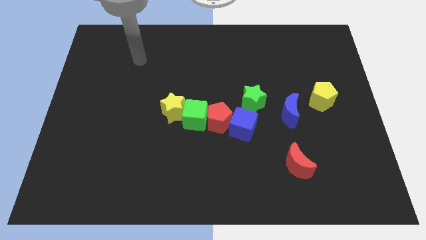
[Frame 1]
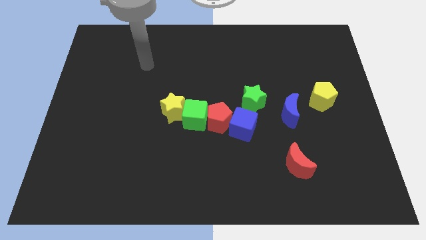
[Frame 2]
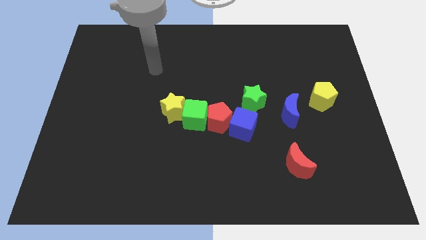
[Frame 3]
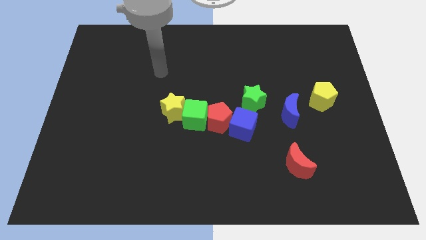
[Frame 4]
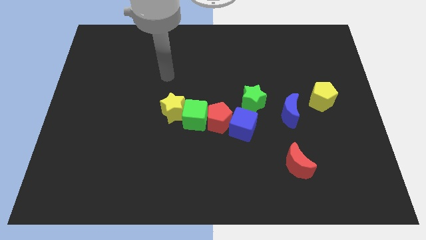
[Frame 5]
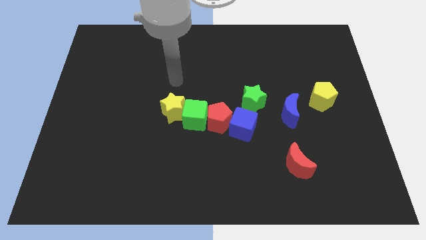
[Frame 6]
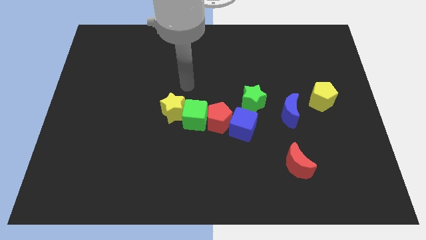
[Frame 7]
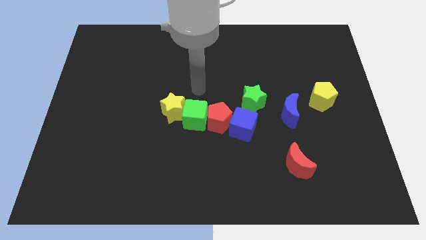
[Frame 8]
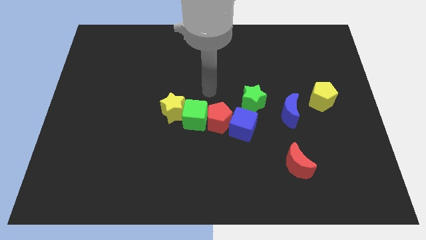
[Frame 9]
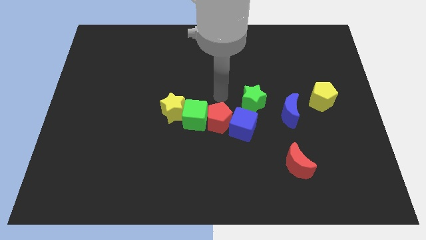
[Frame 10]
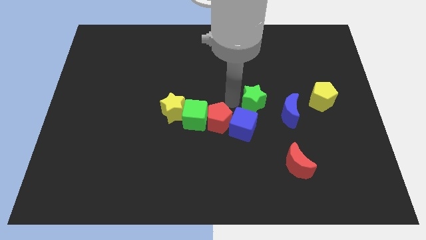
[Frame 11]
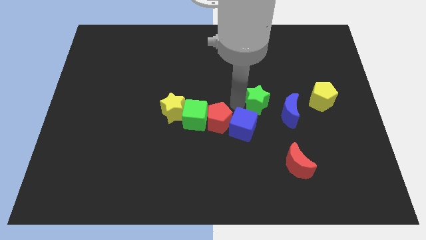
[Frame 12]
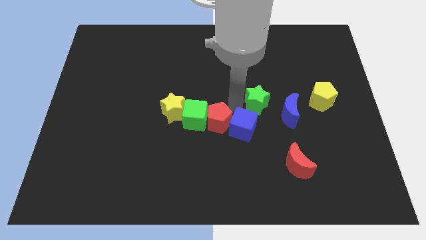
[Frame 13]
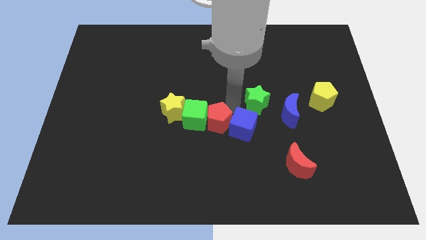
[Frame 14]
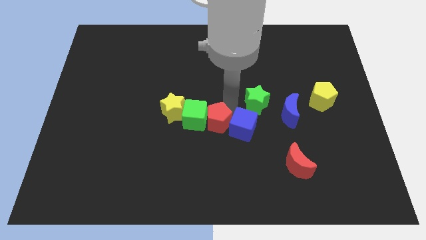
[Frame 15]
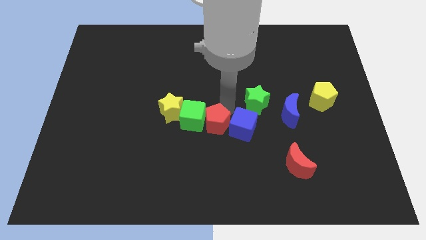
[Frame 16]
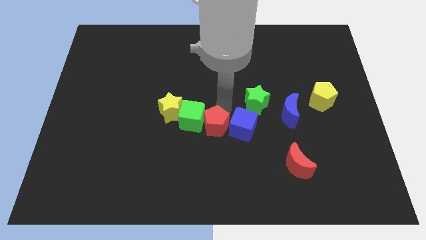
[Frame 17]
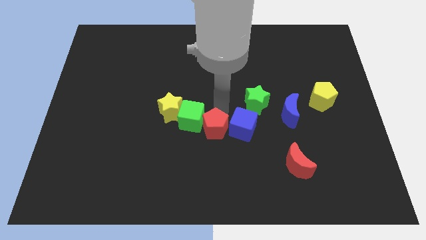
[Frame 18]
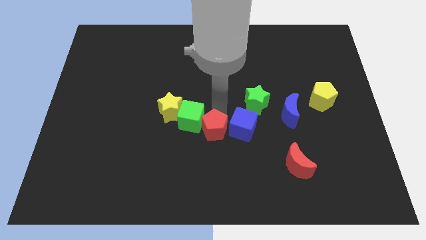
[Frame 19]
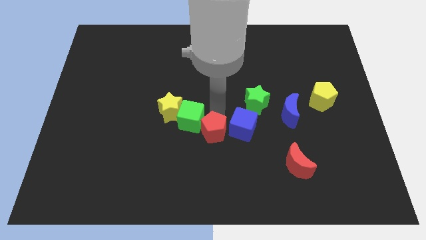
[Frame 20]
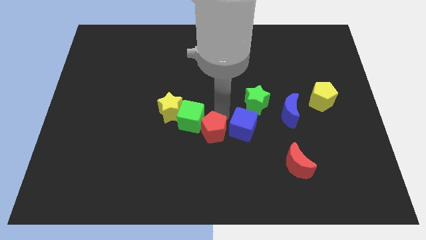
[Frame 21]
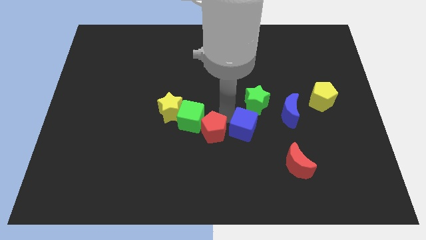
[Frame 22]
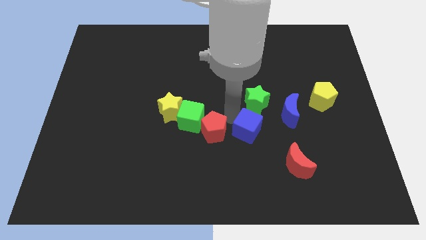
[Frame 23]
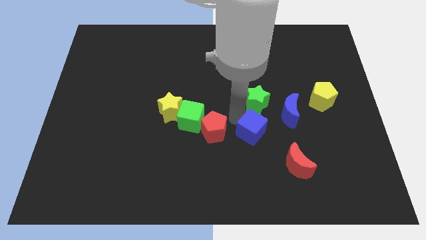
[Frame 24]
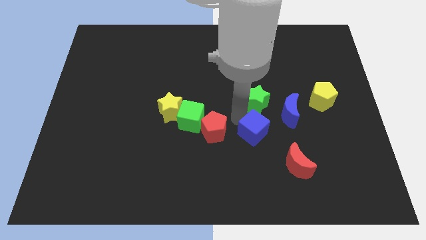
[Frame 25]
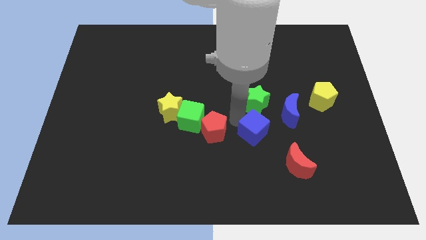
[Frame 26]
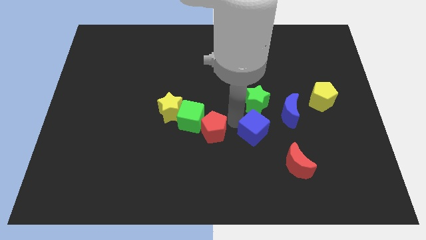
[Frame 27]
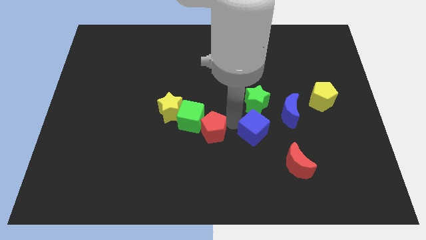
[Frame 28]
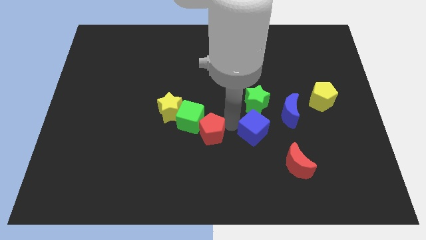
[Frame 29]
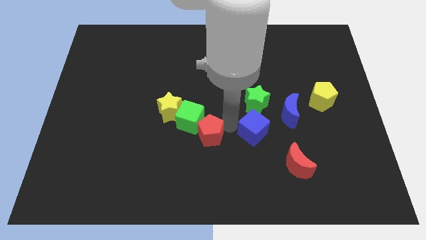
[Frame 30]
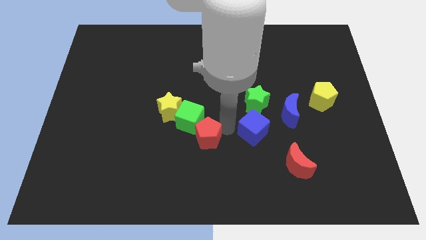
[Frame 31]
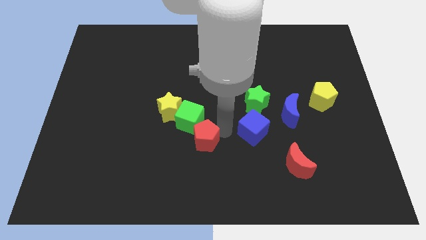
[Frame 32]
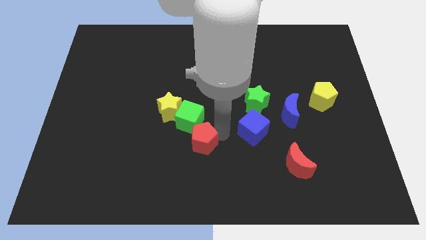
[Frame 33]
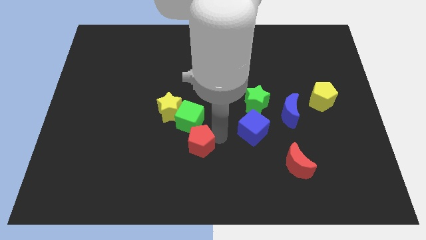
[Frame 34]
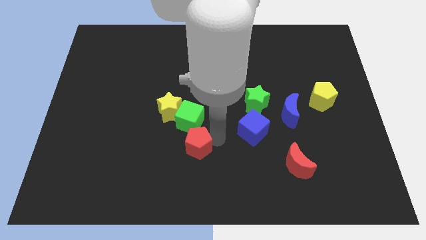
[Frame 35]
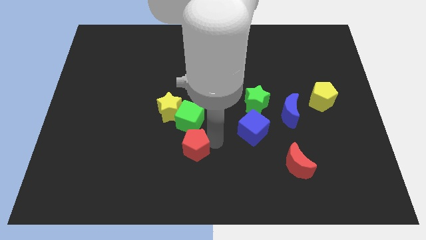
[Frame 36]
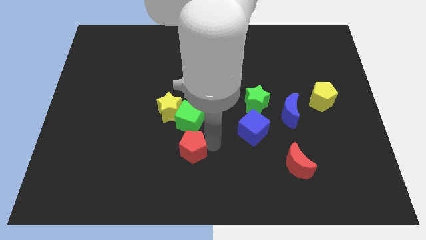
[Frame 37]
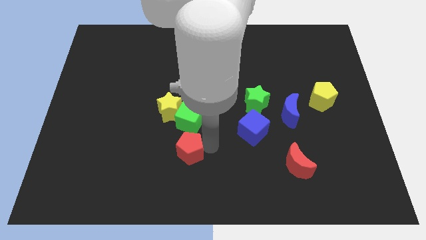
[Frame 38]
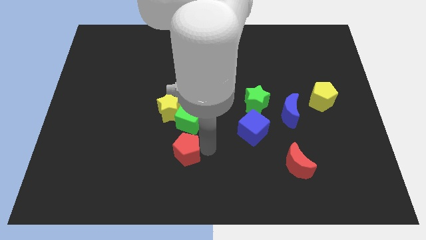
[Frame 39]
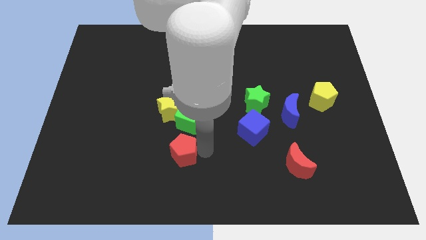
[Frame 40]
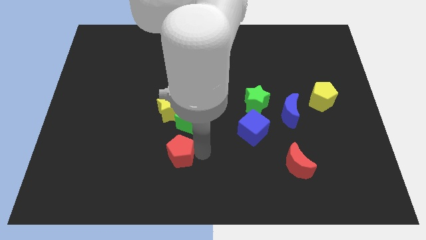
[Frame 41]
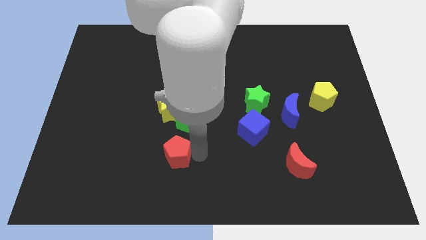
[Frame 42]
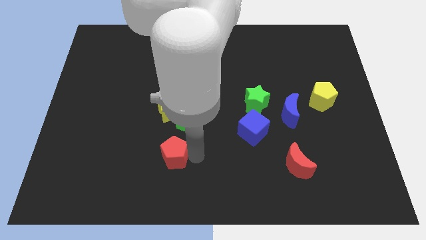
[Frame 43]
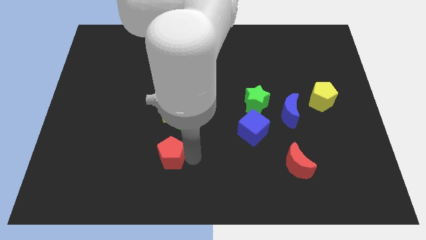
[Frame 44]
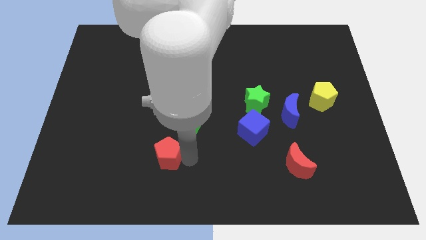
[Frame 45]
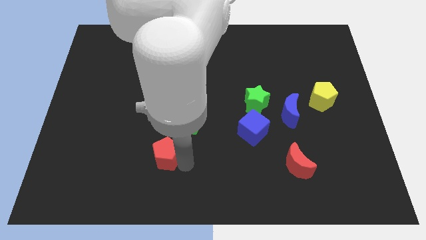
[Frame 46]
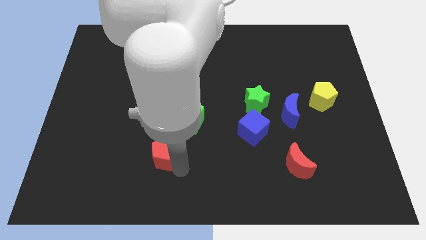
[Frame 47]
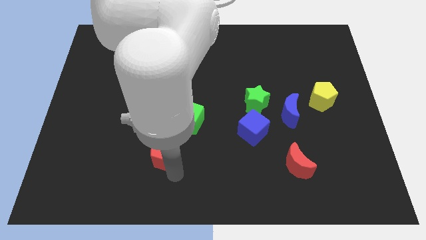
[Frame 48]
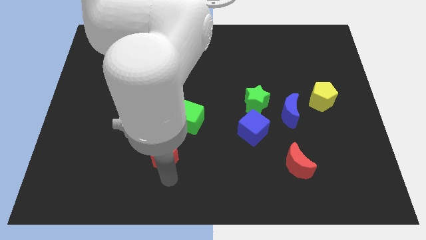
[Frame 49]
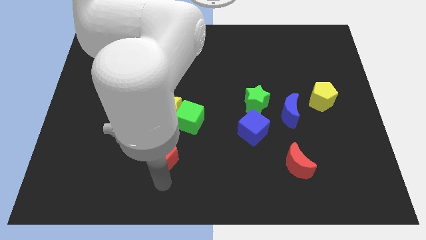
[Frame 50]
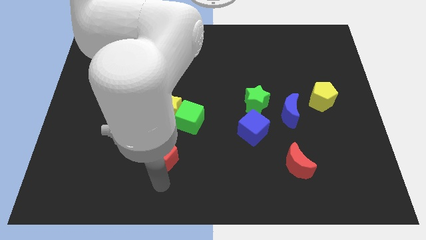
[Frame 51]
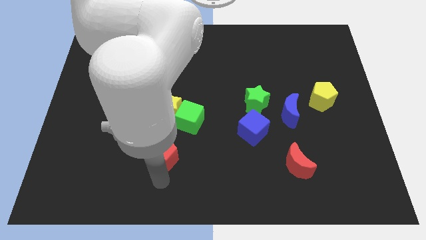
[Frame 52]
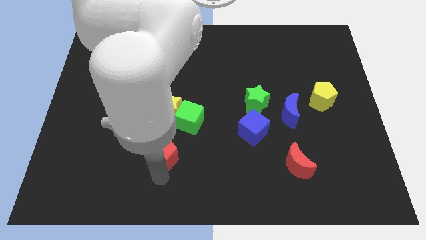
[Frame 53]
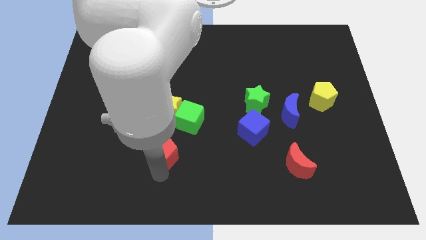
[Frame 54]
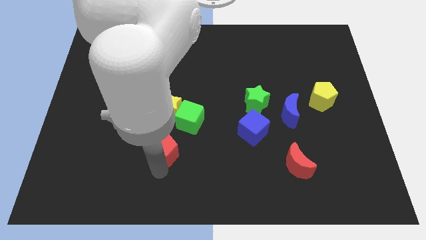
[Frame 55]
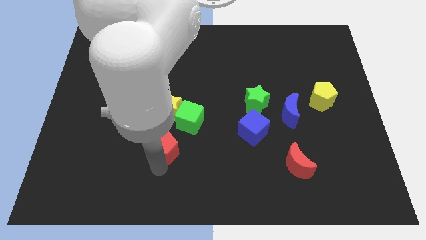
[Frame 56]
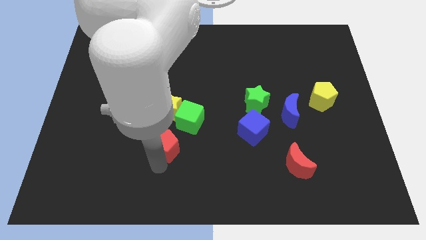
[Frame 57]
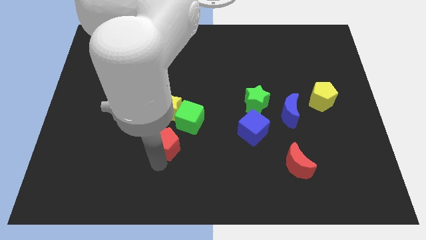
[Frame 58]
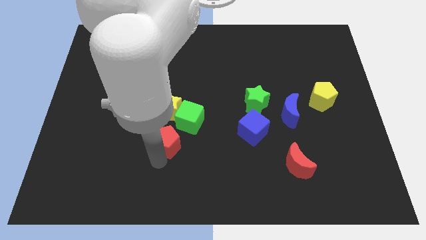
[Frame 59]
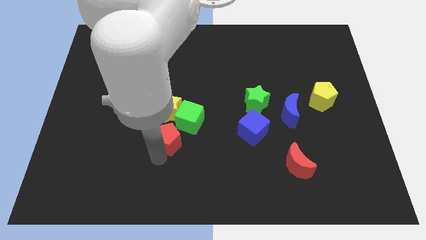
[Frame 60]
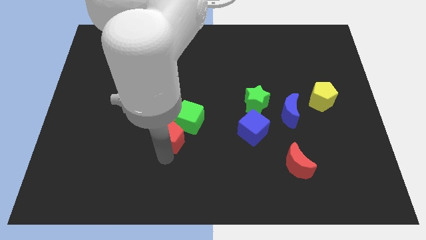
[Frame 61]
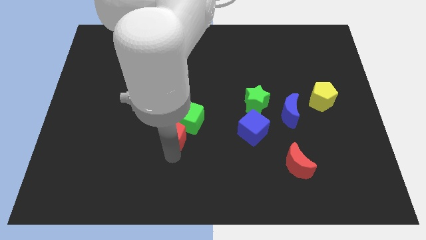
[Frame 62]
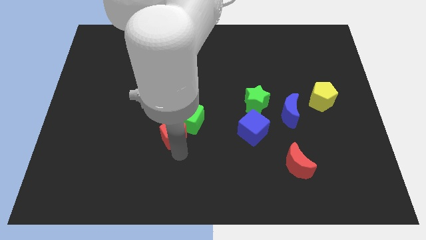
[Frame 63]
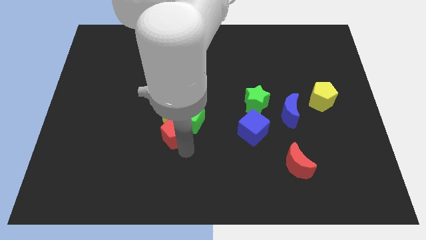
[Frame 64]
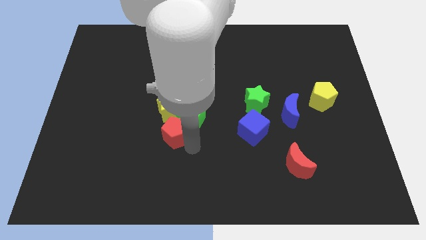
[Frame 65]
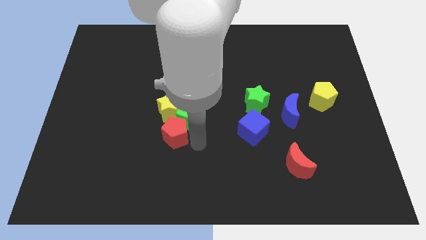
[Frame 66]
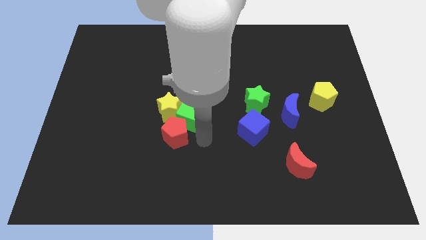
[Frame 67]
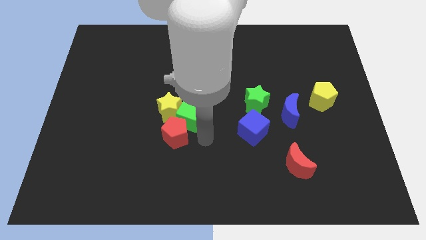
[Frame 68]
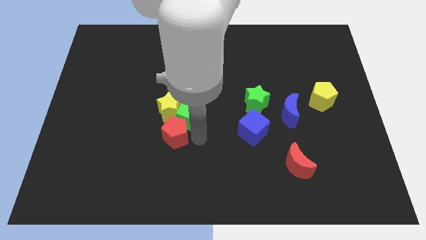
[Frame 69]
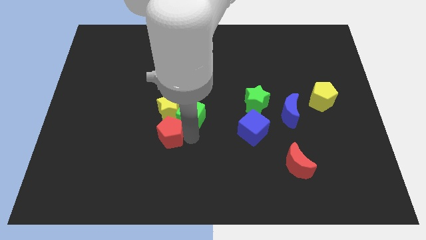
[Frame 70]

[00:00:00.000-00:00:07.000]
slide the red pentagon to the bottom left side of the yellow star

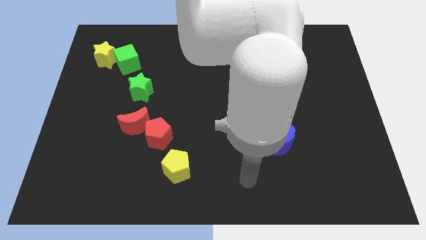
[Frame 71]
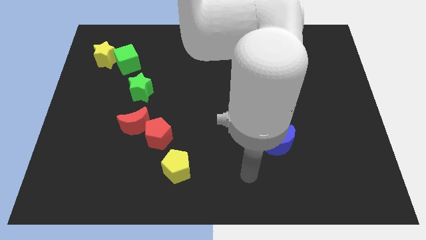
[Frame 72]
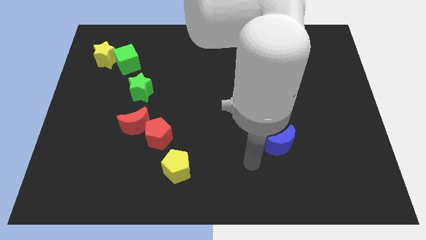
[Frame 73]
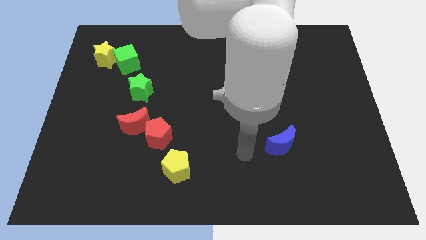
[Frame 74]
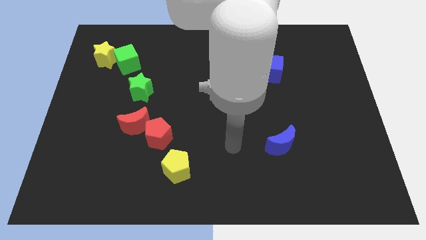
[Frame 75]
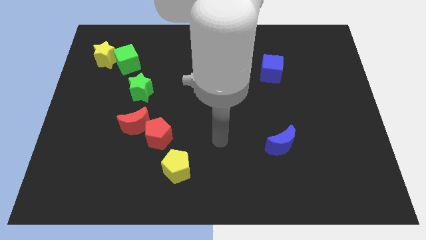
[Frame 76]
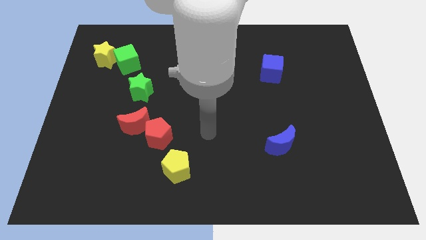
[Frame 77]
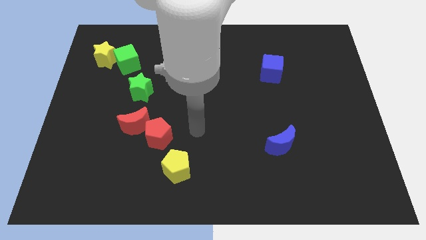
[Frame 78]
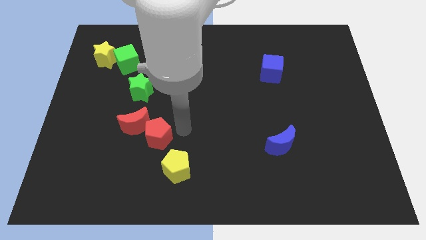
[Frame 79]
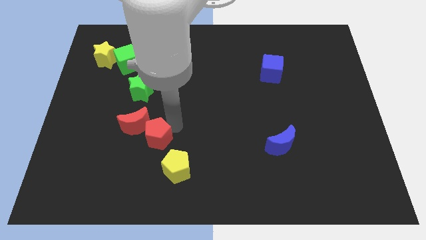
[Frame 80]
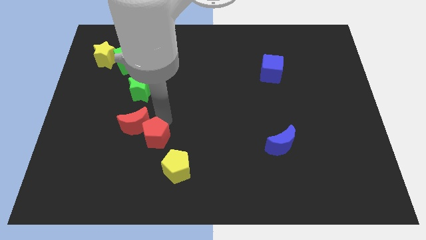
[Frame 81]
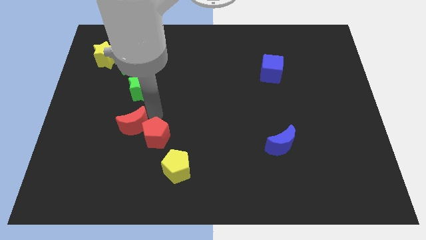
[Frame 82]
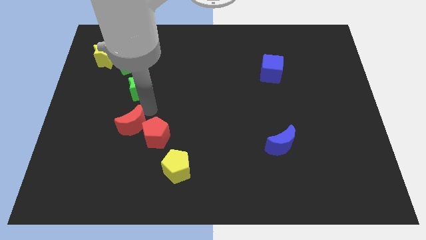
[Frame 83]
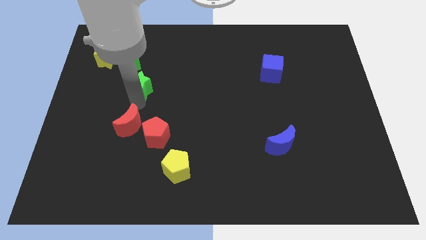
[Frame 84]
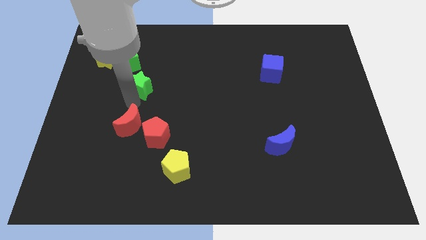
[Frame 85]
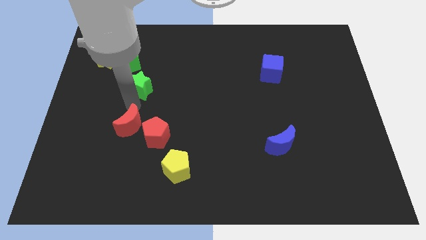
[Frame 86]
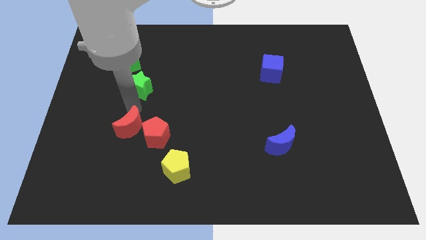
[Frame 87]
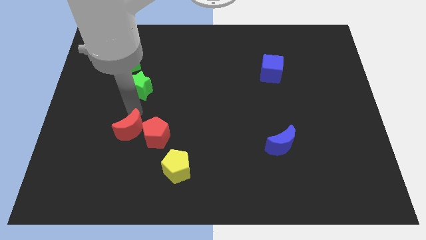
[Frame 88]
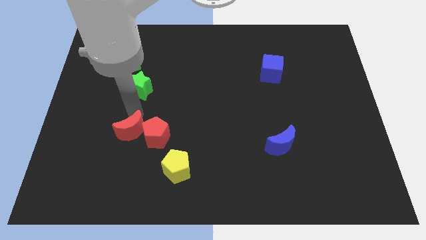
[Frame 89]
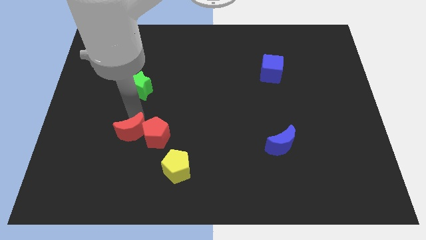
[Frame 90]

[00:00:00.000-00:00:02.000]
slide the red moon to the bottom left side of the red pentagon
